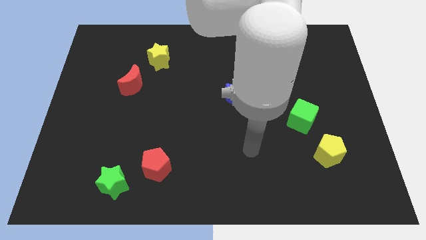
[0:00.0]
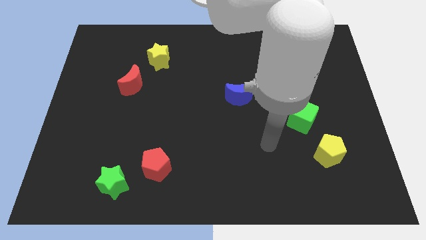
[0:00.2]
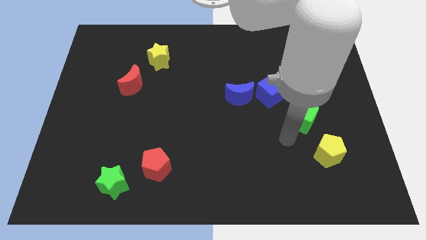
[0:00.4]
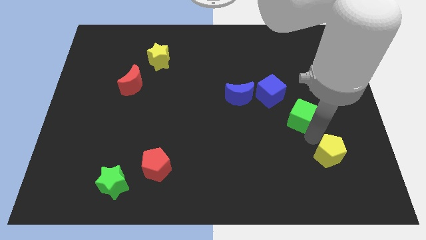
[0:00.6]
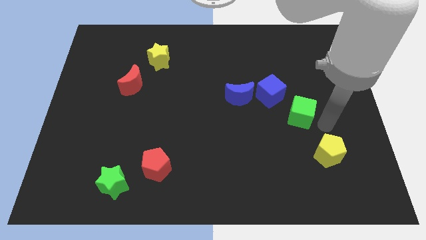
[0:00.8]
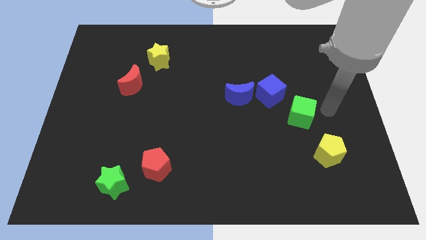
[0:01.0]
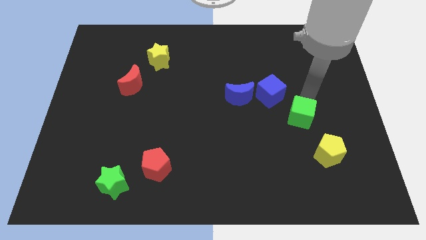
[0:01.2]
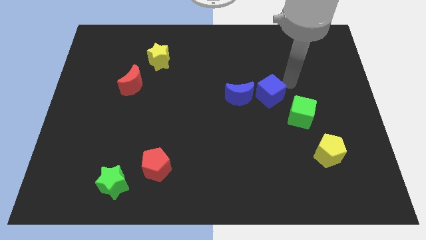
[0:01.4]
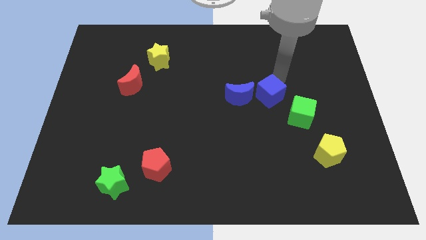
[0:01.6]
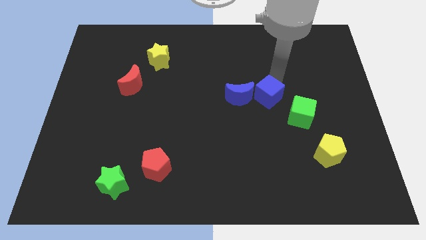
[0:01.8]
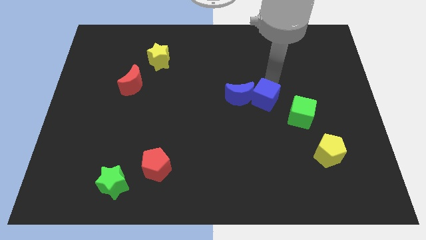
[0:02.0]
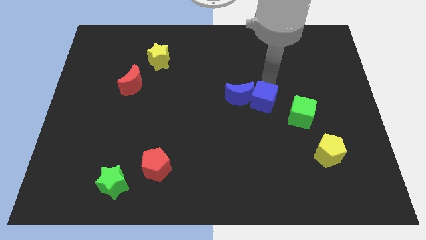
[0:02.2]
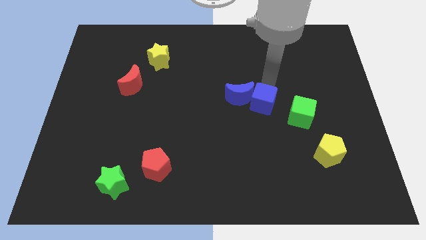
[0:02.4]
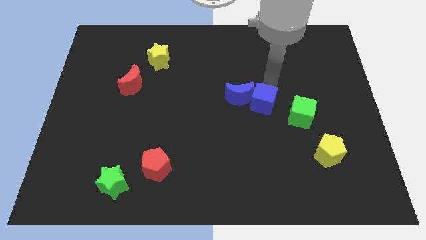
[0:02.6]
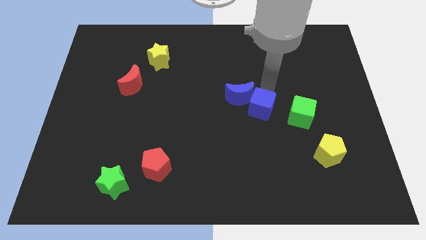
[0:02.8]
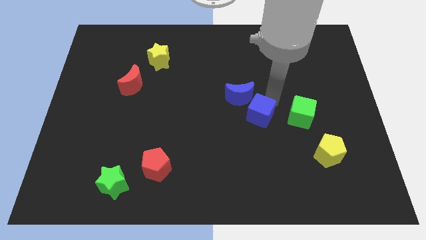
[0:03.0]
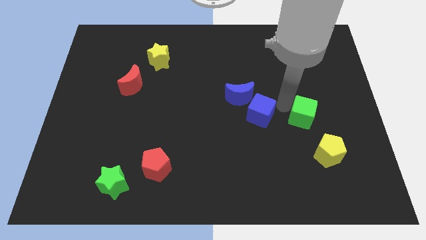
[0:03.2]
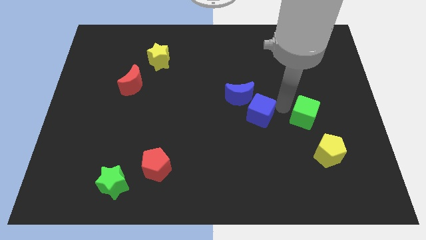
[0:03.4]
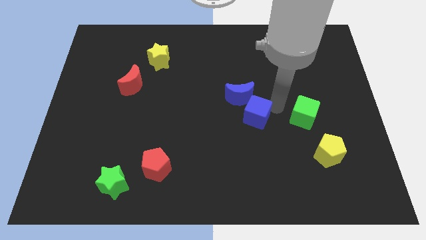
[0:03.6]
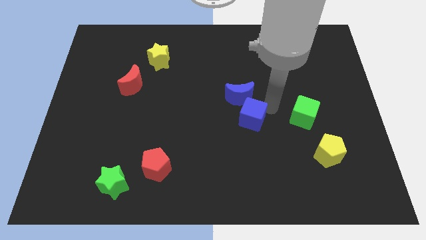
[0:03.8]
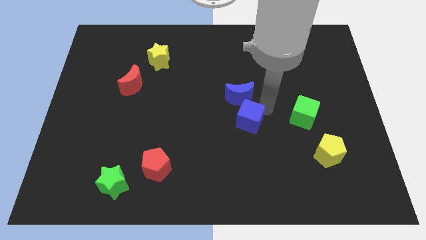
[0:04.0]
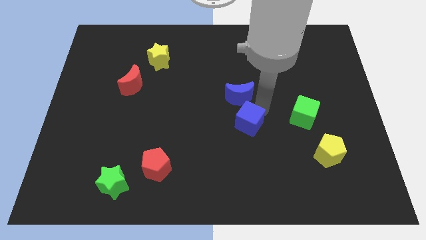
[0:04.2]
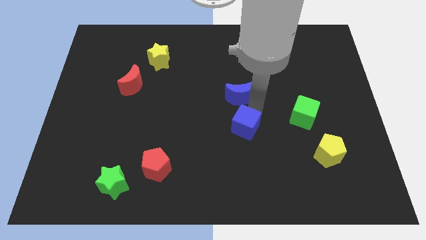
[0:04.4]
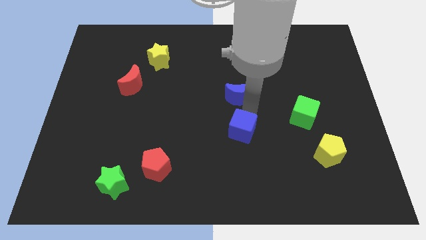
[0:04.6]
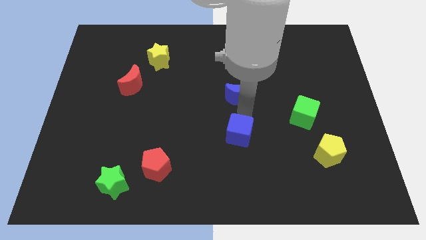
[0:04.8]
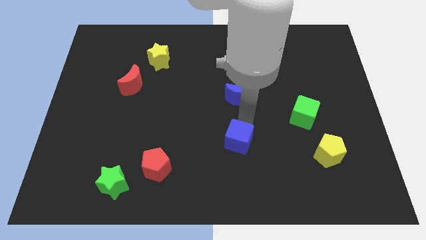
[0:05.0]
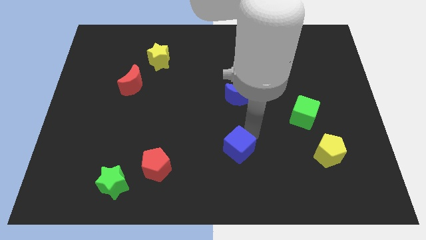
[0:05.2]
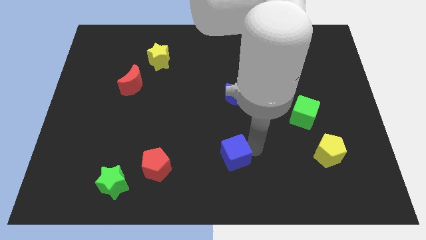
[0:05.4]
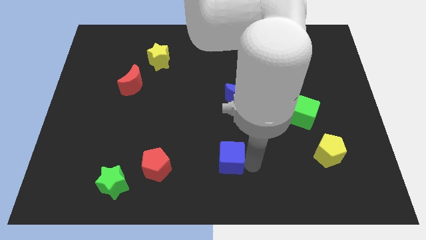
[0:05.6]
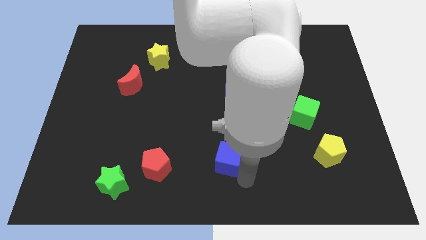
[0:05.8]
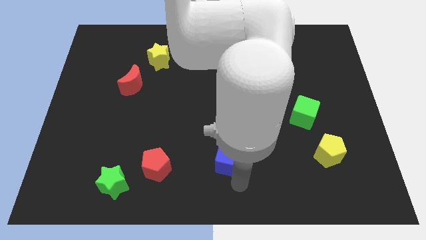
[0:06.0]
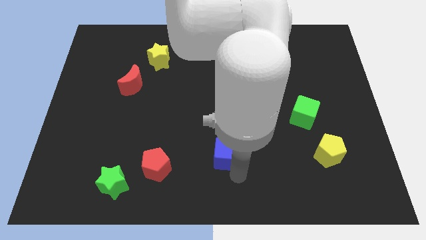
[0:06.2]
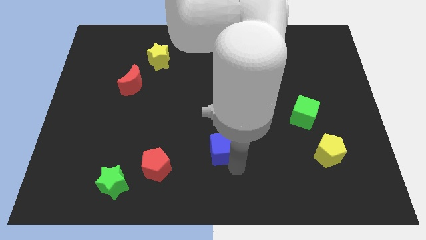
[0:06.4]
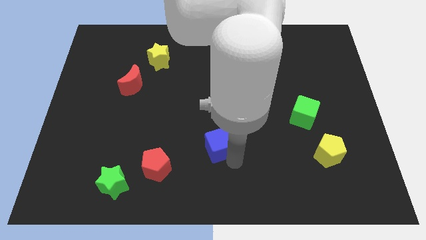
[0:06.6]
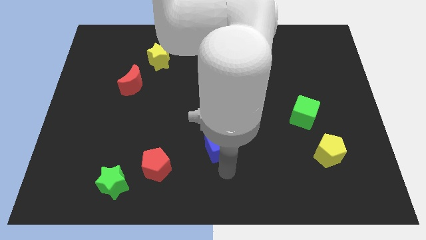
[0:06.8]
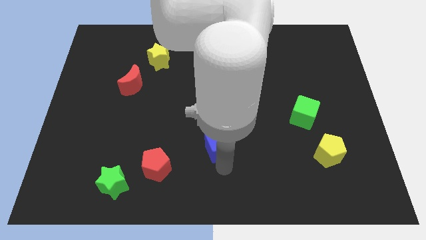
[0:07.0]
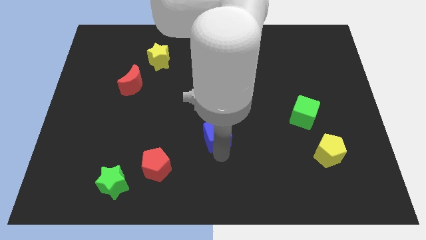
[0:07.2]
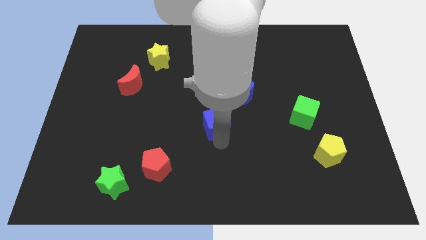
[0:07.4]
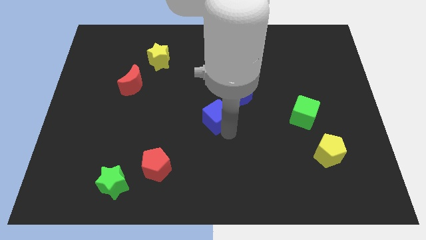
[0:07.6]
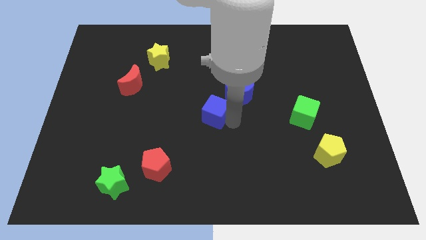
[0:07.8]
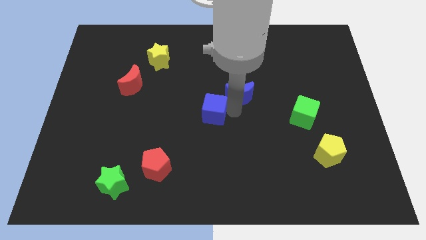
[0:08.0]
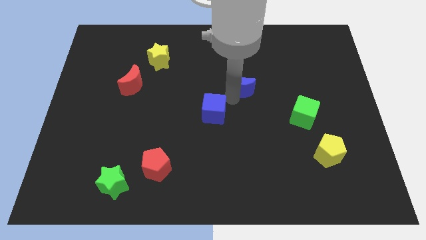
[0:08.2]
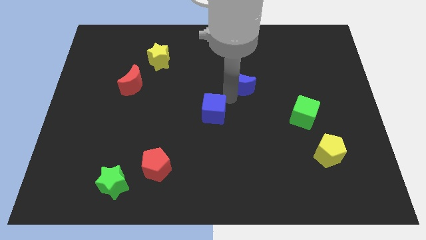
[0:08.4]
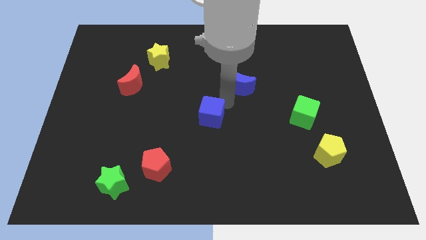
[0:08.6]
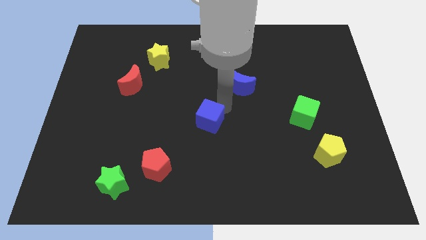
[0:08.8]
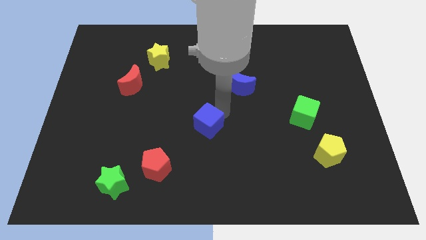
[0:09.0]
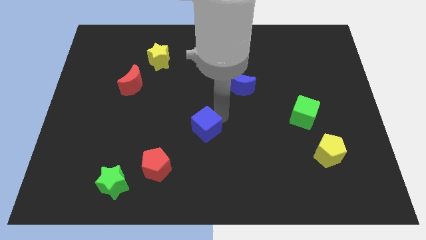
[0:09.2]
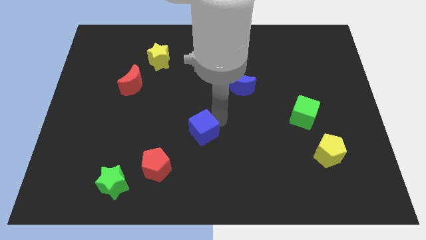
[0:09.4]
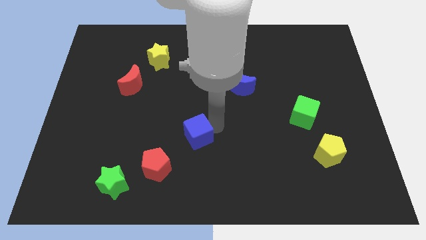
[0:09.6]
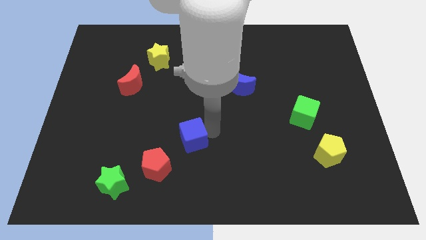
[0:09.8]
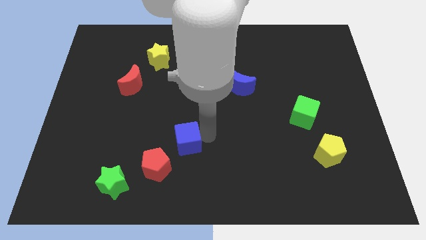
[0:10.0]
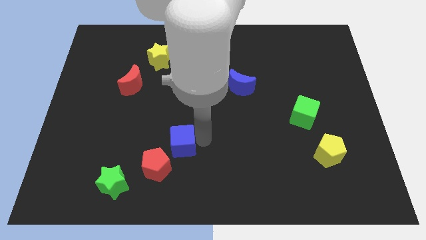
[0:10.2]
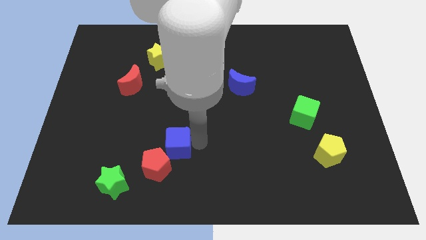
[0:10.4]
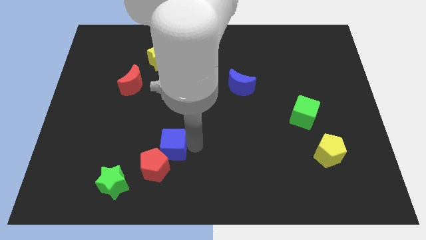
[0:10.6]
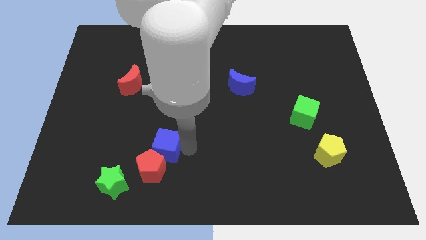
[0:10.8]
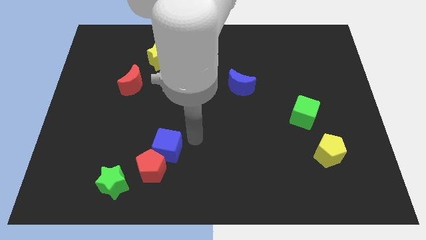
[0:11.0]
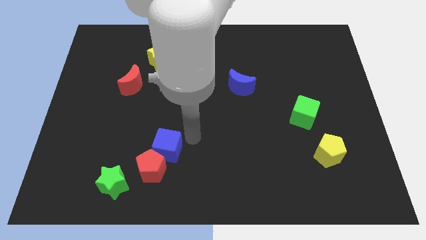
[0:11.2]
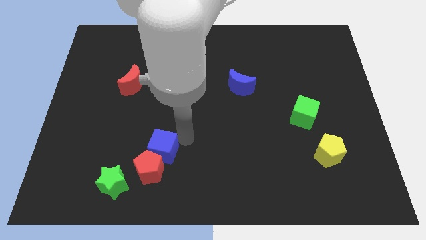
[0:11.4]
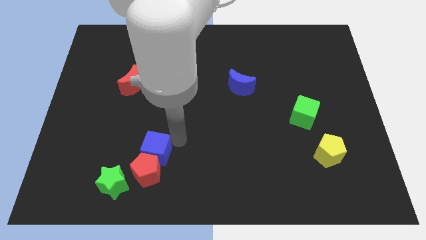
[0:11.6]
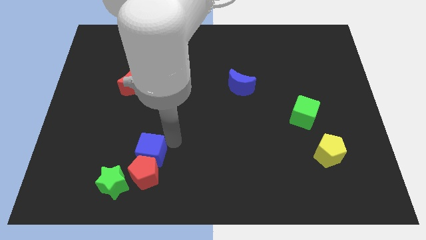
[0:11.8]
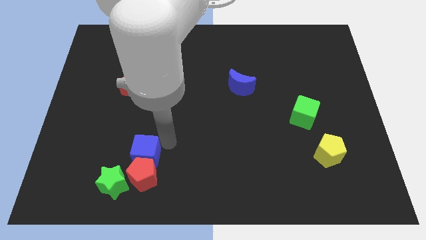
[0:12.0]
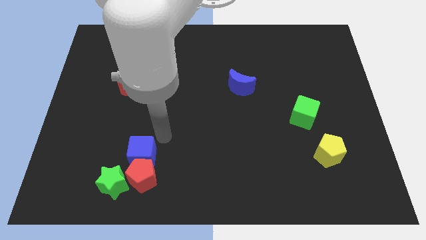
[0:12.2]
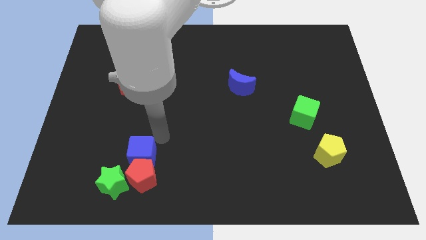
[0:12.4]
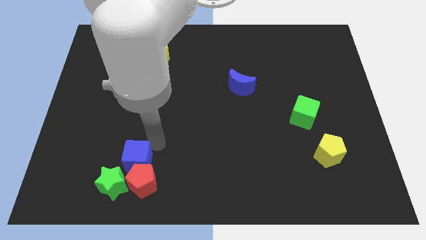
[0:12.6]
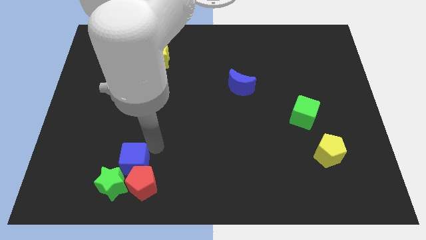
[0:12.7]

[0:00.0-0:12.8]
put the blue cube to the green star

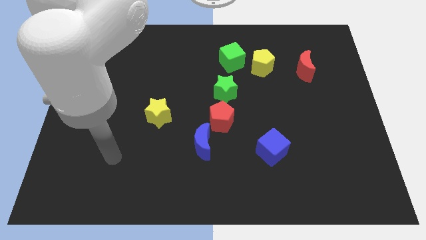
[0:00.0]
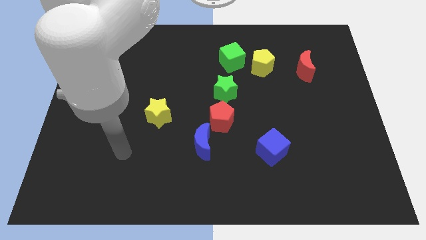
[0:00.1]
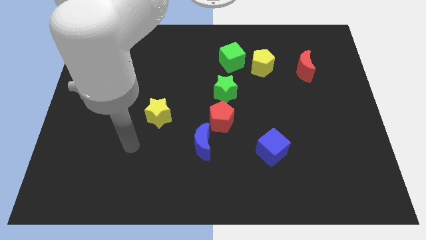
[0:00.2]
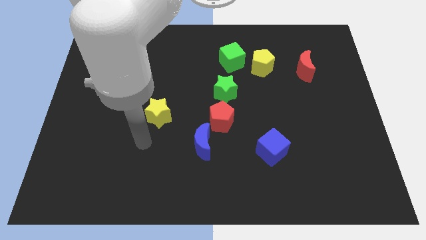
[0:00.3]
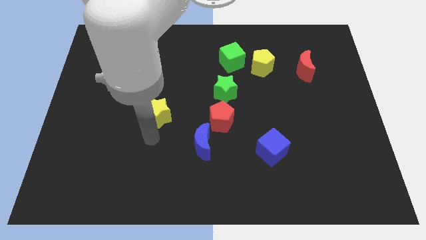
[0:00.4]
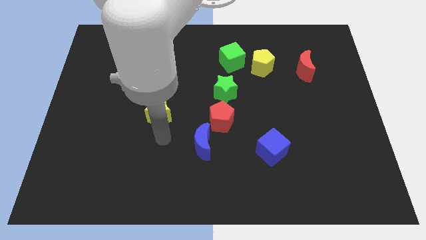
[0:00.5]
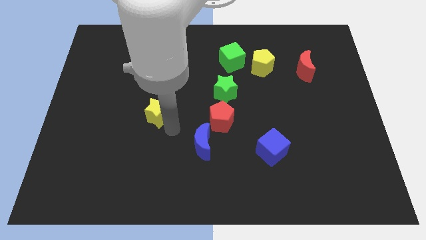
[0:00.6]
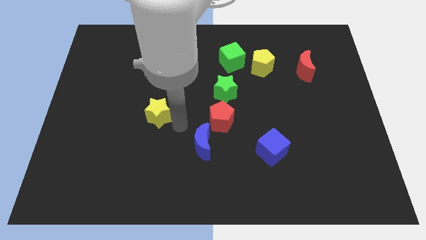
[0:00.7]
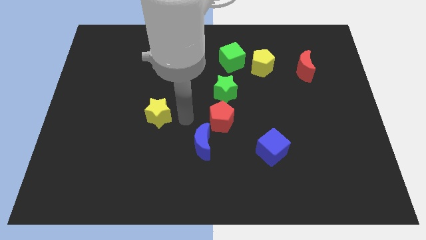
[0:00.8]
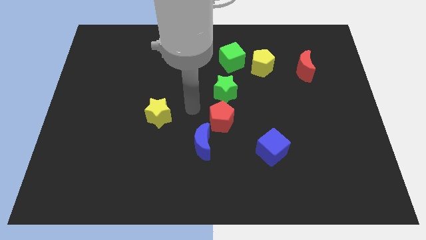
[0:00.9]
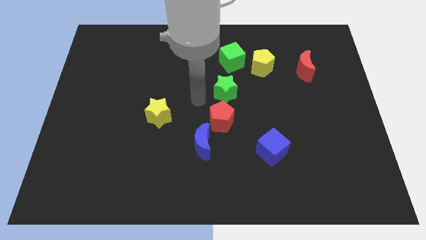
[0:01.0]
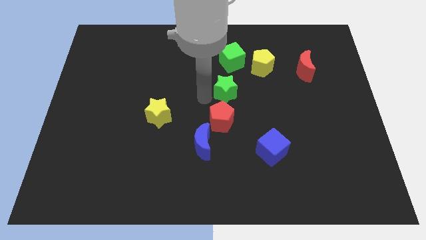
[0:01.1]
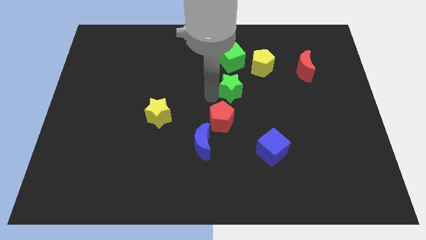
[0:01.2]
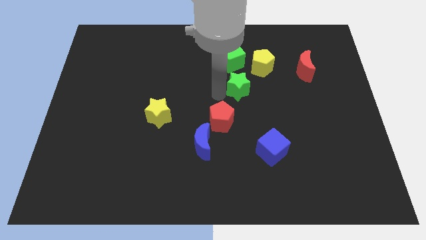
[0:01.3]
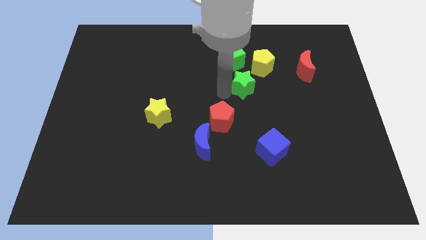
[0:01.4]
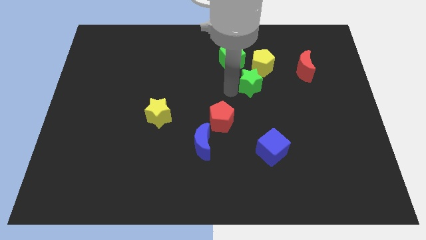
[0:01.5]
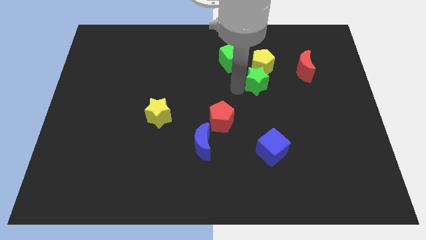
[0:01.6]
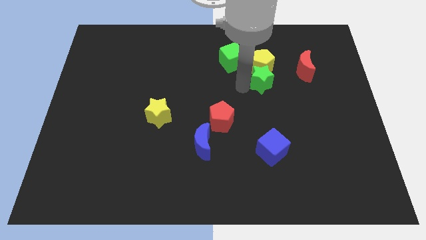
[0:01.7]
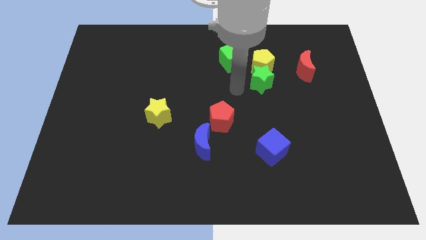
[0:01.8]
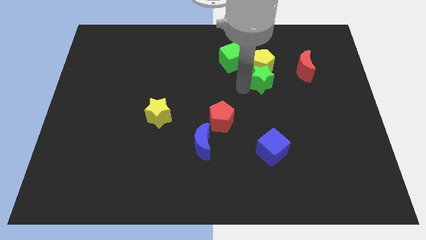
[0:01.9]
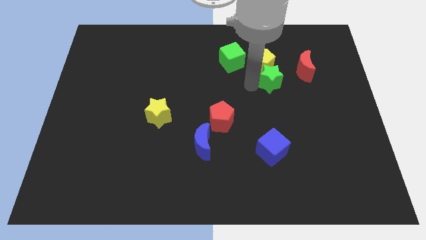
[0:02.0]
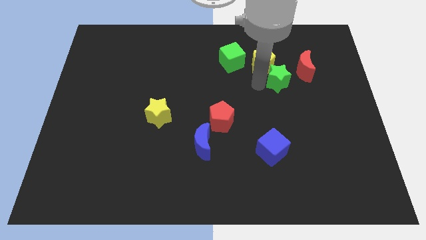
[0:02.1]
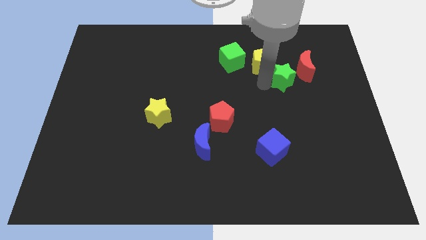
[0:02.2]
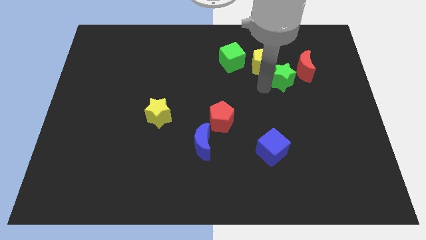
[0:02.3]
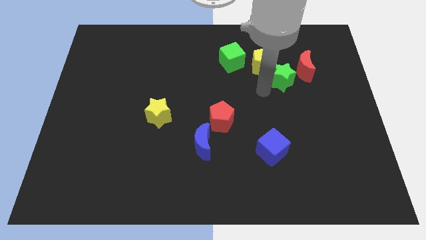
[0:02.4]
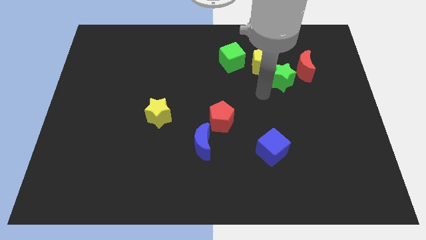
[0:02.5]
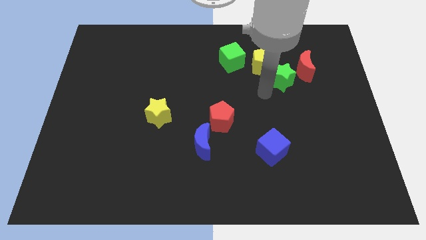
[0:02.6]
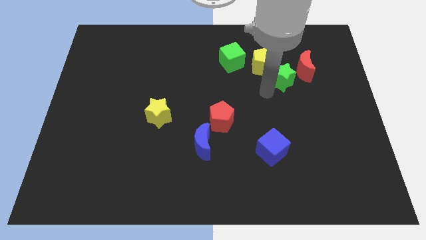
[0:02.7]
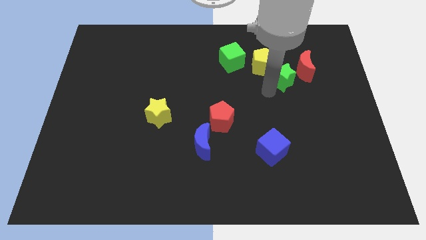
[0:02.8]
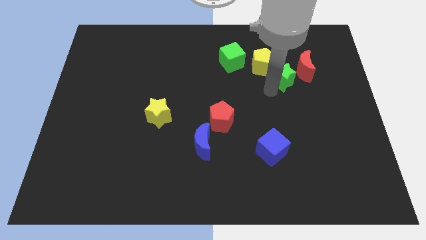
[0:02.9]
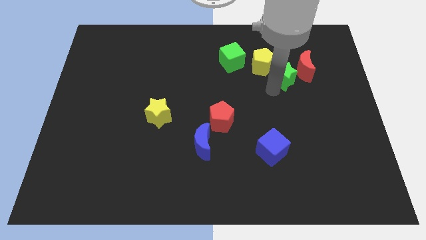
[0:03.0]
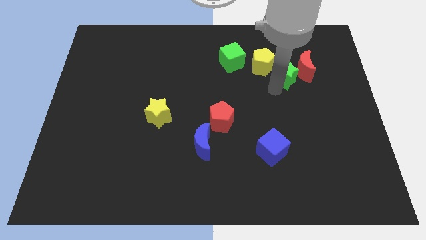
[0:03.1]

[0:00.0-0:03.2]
push the green star to the red moon
